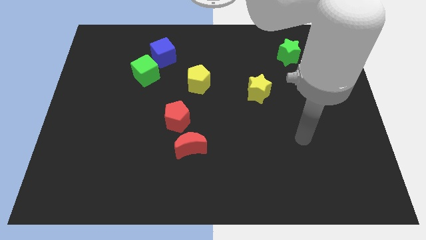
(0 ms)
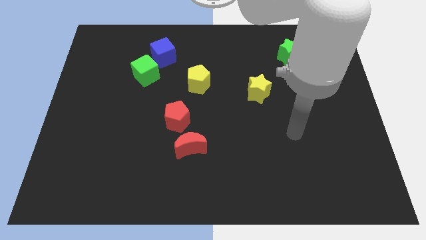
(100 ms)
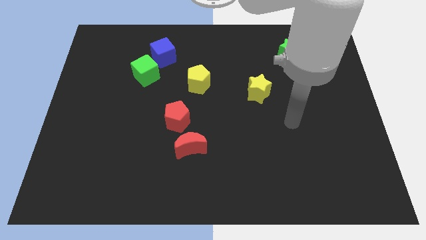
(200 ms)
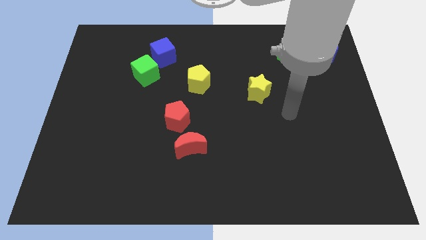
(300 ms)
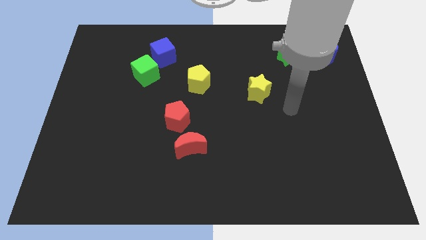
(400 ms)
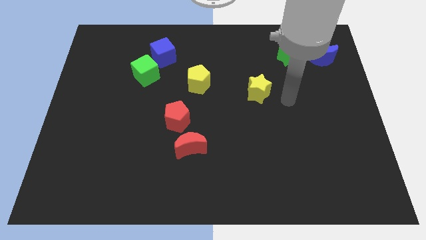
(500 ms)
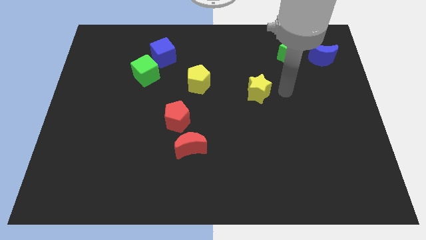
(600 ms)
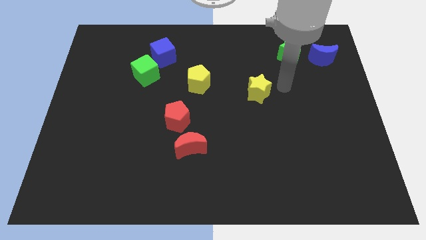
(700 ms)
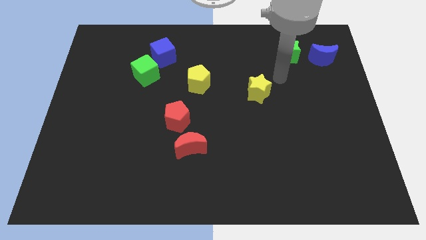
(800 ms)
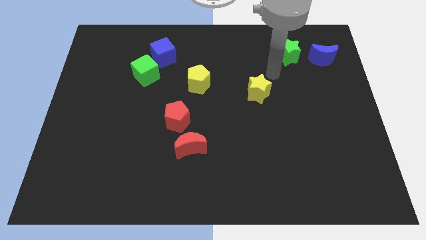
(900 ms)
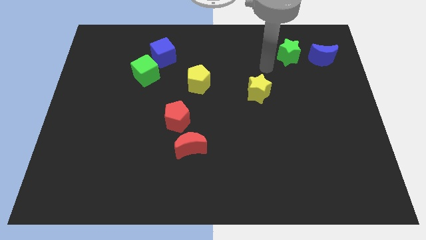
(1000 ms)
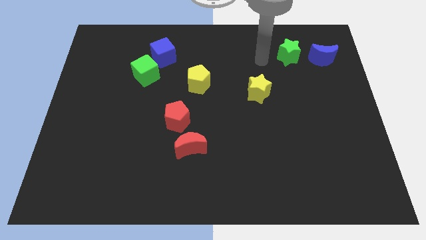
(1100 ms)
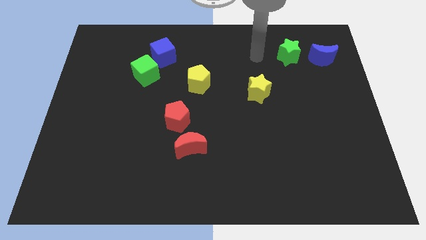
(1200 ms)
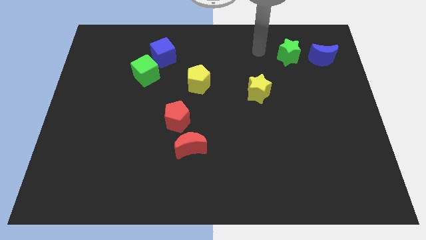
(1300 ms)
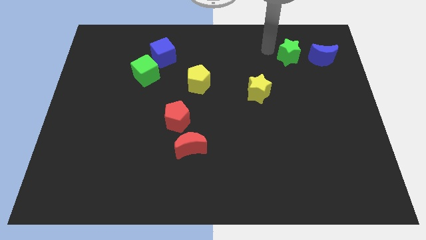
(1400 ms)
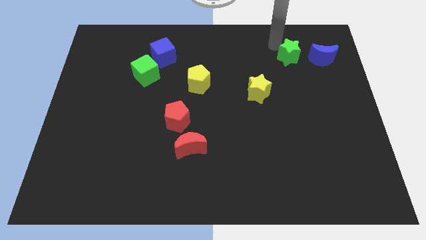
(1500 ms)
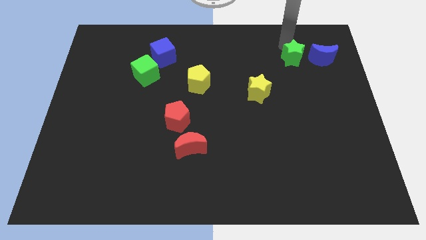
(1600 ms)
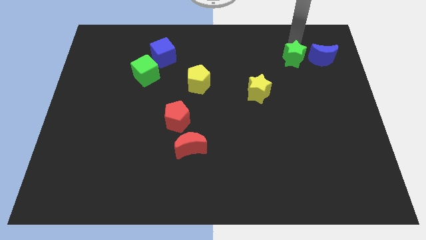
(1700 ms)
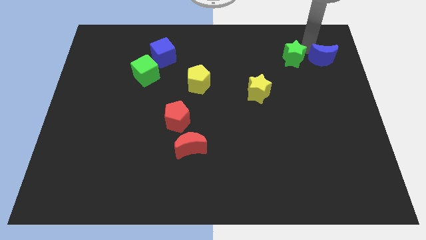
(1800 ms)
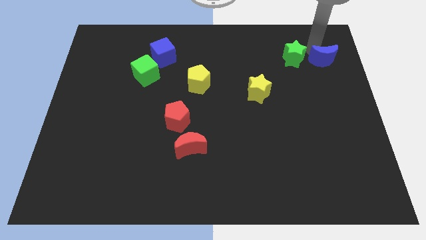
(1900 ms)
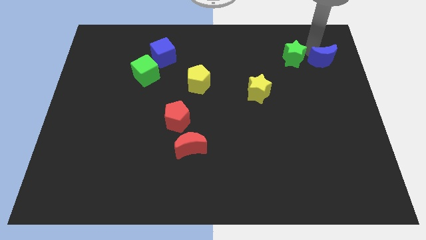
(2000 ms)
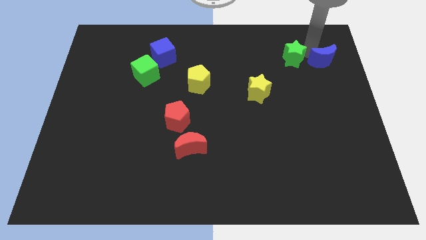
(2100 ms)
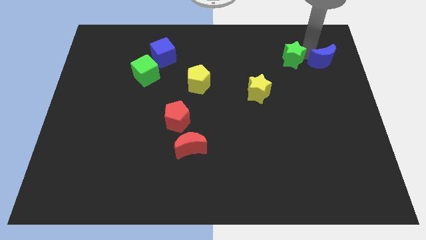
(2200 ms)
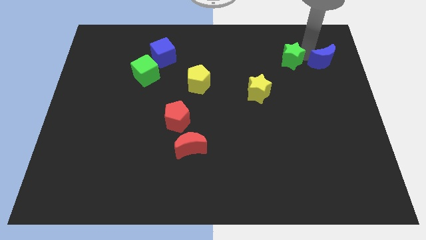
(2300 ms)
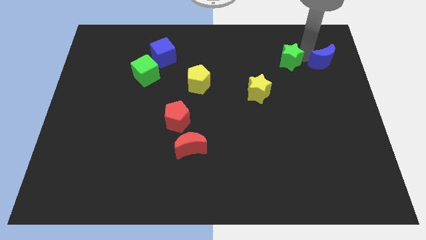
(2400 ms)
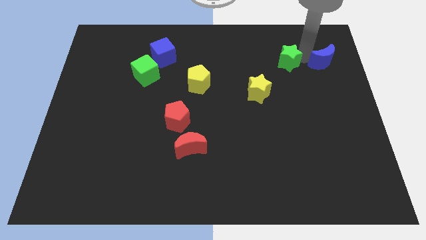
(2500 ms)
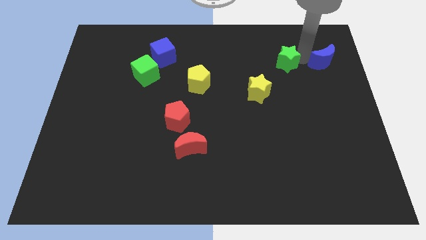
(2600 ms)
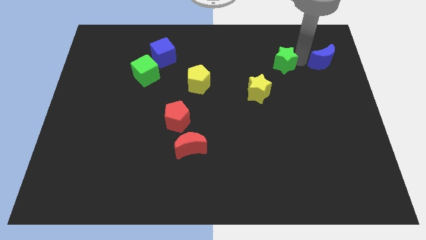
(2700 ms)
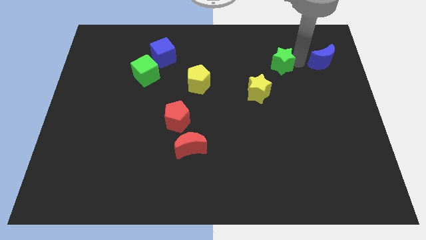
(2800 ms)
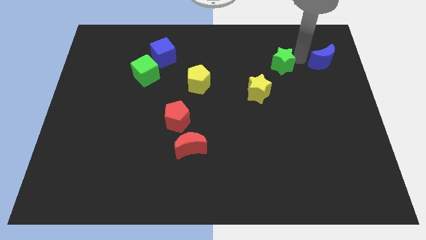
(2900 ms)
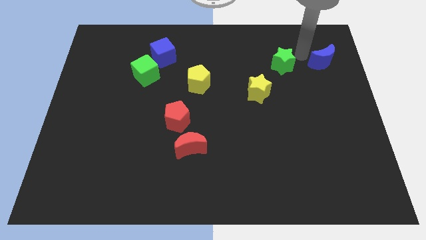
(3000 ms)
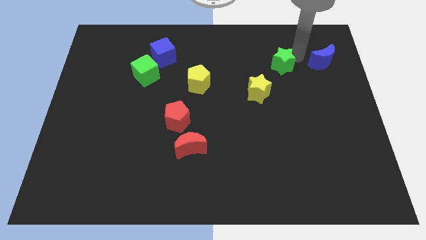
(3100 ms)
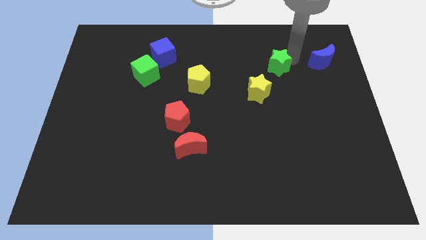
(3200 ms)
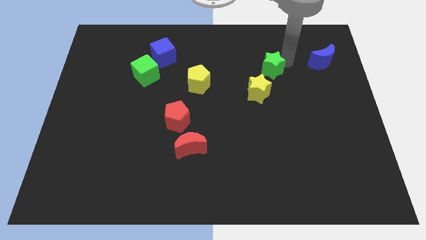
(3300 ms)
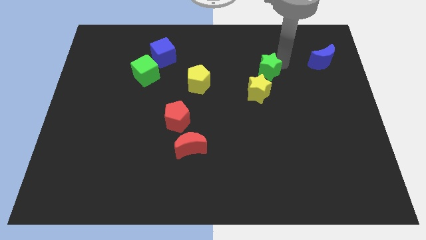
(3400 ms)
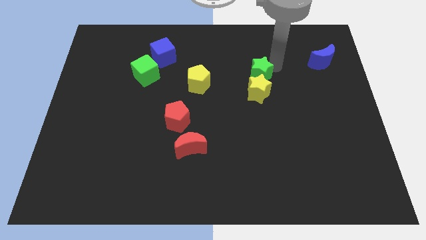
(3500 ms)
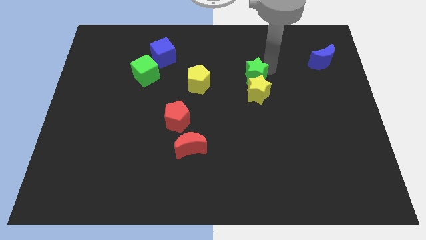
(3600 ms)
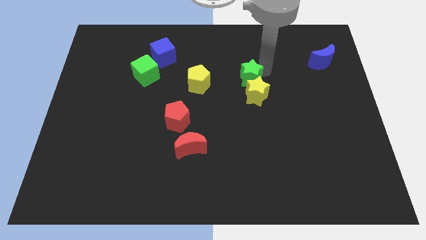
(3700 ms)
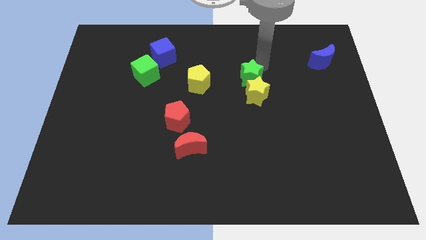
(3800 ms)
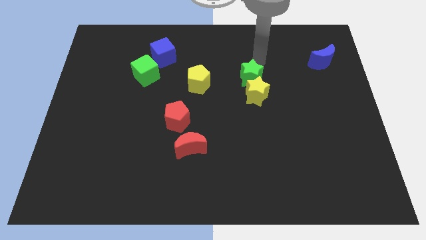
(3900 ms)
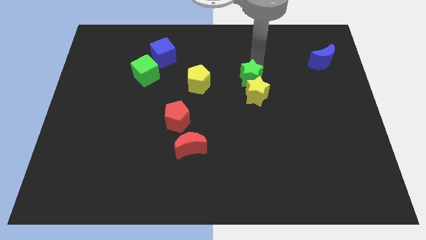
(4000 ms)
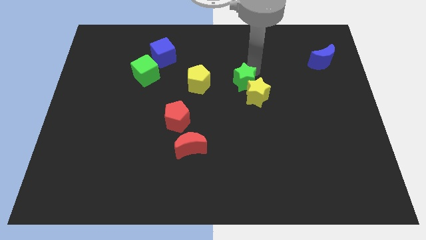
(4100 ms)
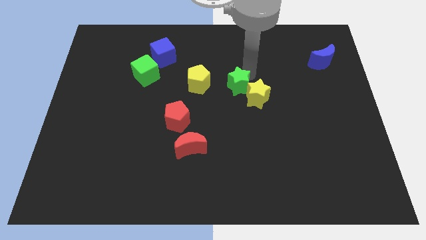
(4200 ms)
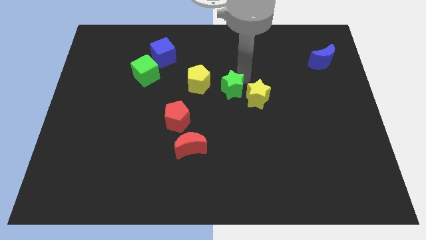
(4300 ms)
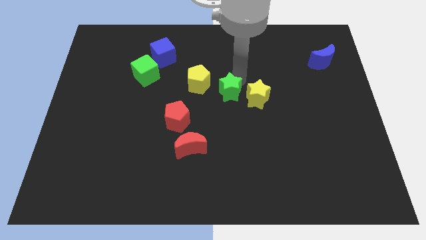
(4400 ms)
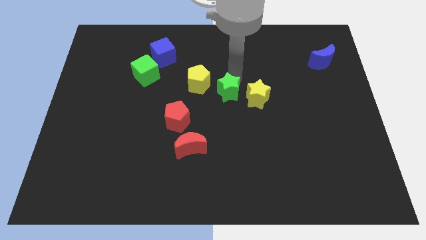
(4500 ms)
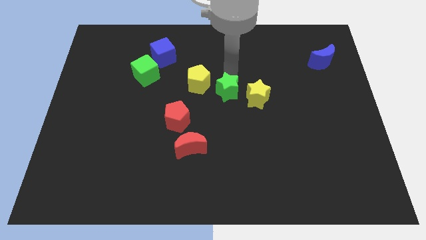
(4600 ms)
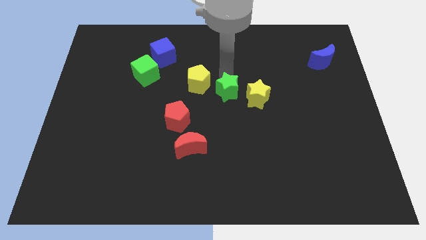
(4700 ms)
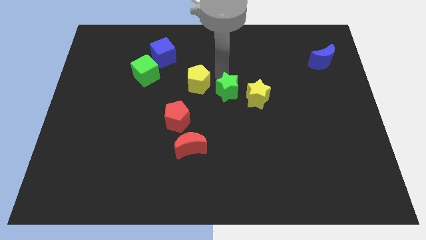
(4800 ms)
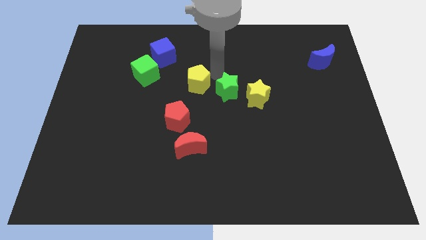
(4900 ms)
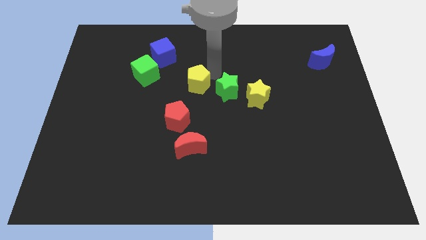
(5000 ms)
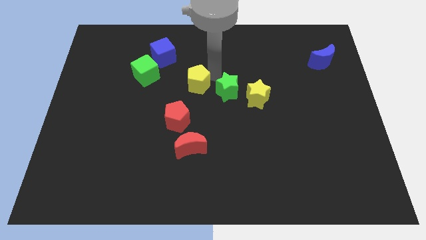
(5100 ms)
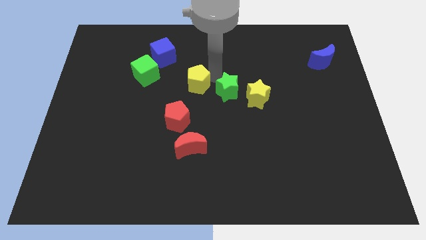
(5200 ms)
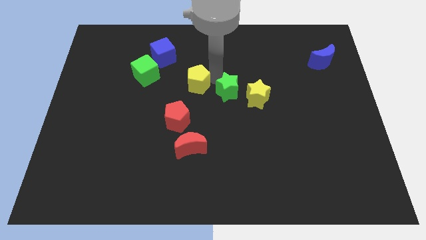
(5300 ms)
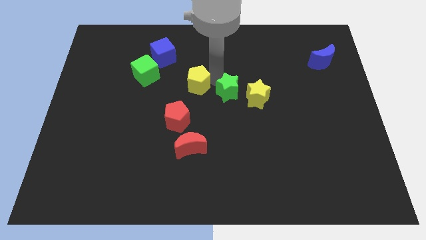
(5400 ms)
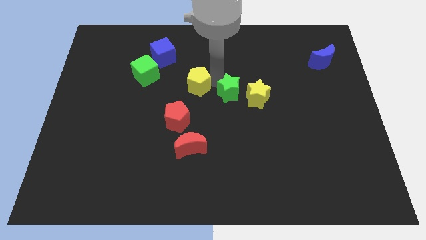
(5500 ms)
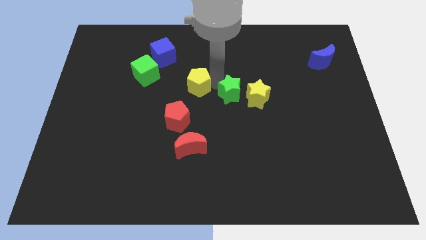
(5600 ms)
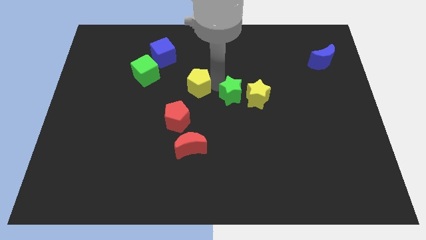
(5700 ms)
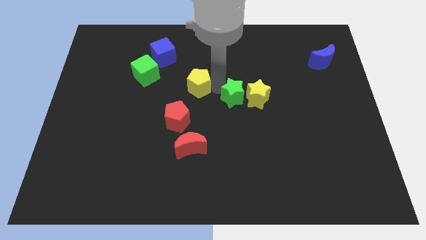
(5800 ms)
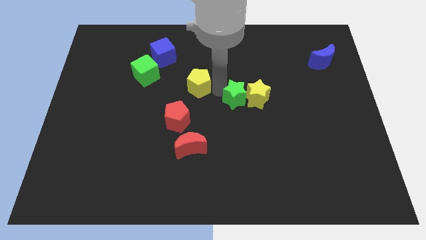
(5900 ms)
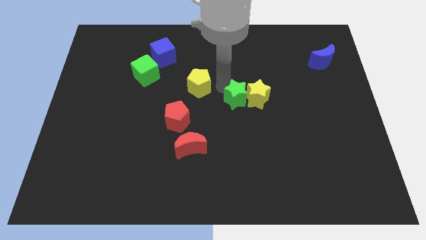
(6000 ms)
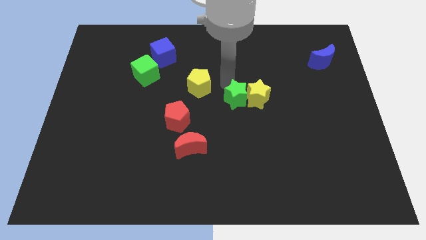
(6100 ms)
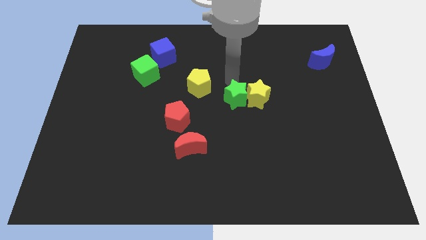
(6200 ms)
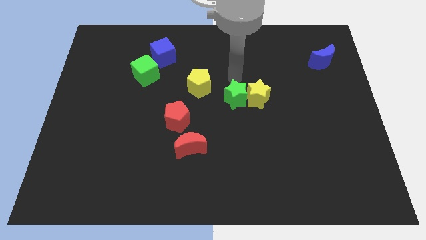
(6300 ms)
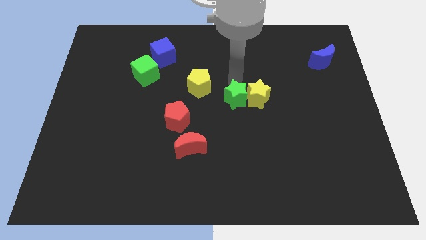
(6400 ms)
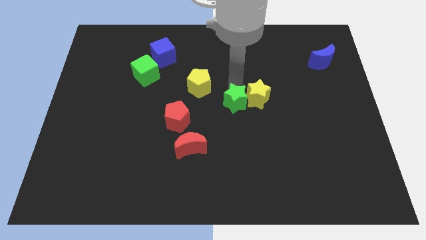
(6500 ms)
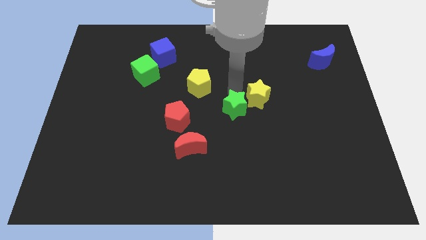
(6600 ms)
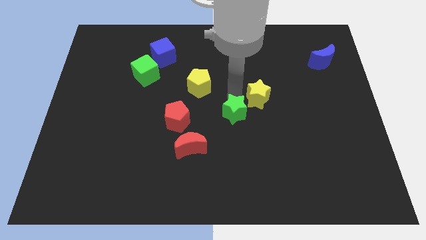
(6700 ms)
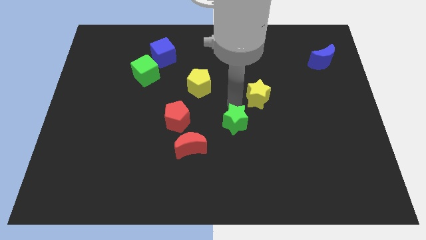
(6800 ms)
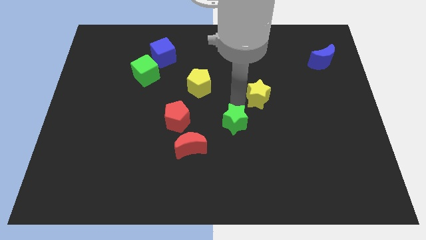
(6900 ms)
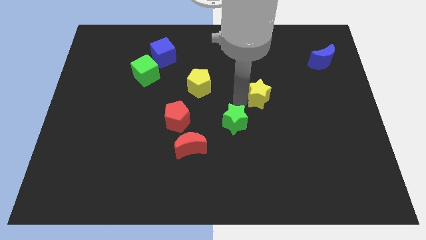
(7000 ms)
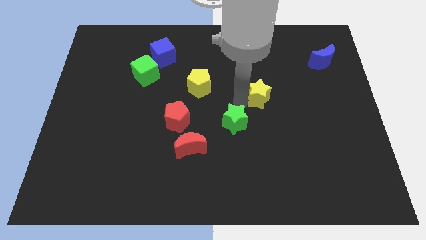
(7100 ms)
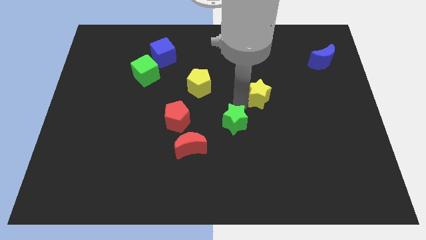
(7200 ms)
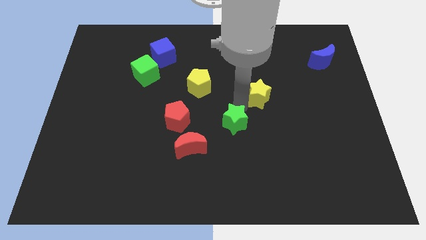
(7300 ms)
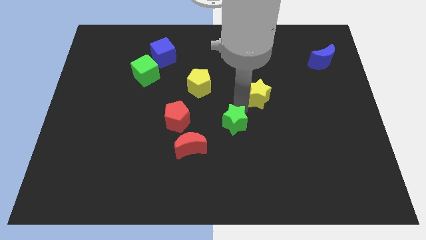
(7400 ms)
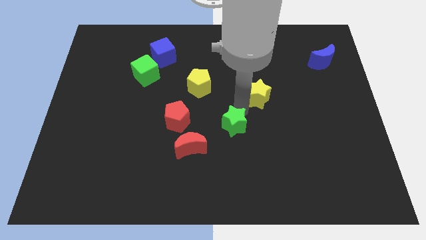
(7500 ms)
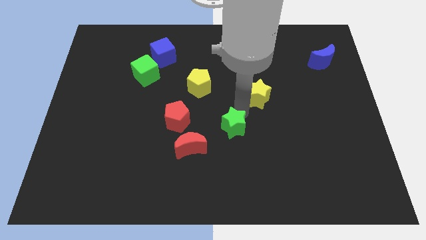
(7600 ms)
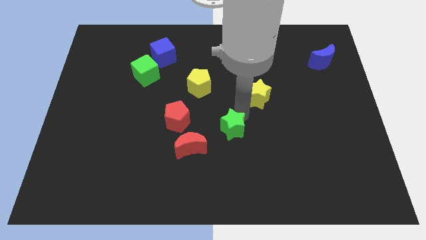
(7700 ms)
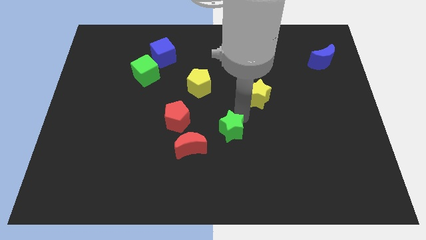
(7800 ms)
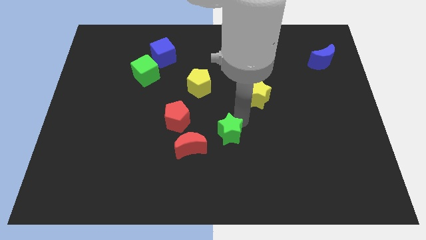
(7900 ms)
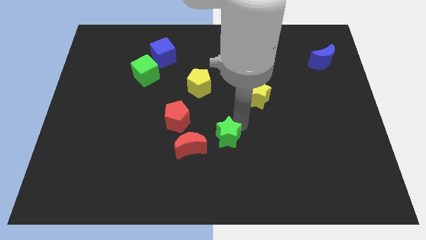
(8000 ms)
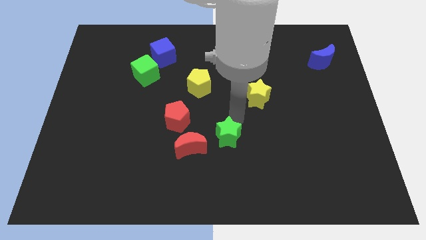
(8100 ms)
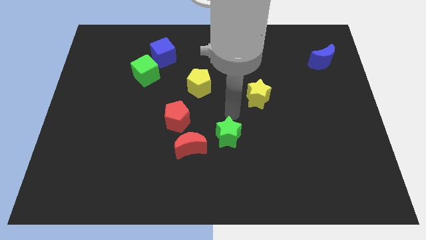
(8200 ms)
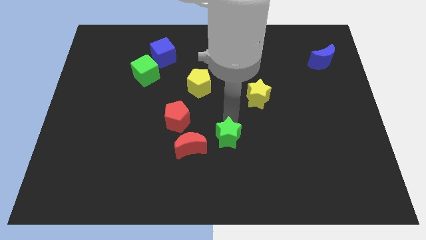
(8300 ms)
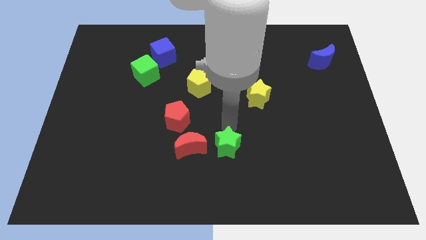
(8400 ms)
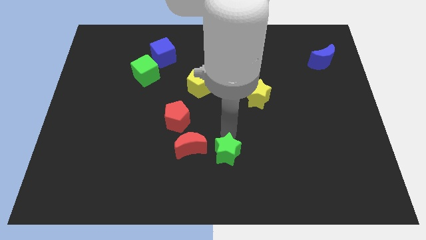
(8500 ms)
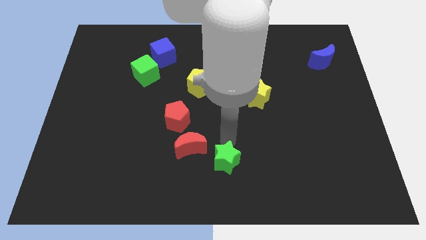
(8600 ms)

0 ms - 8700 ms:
move the green star to the bottom side
